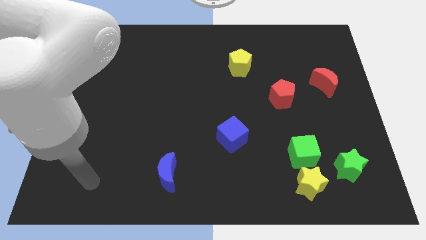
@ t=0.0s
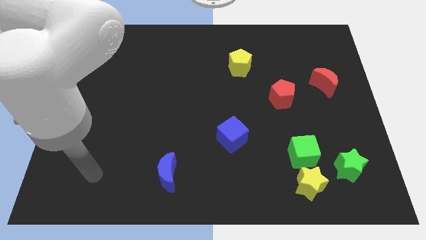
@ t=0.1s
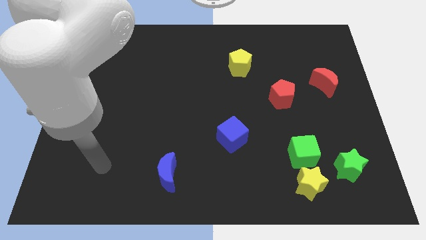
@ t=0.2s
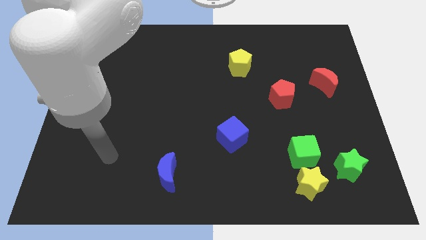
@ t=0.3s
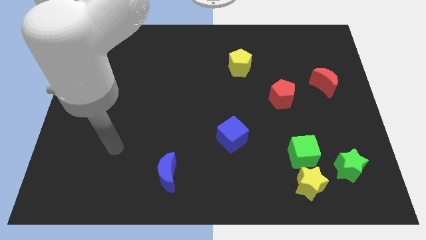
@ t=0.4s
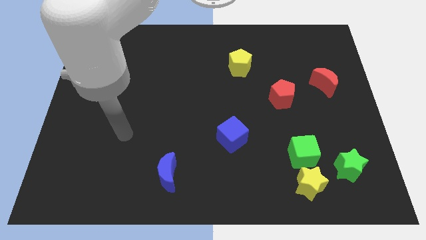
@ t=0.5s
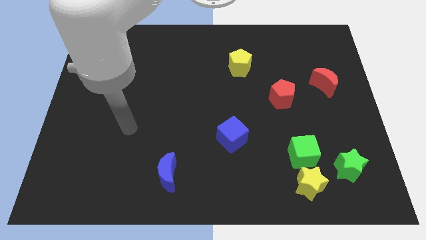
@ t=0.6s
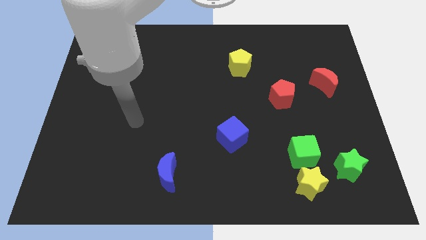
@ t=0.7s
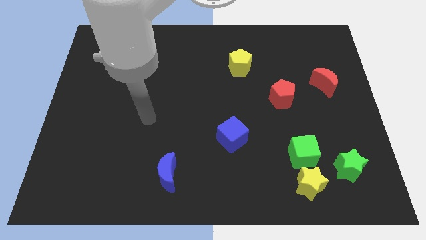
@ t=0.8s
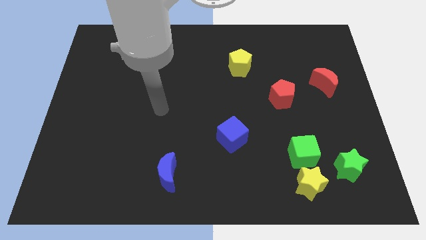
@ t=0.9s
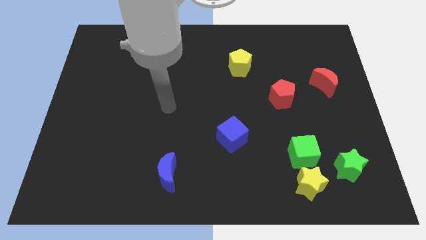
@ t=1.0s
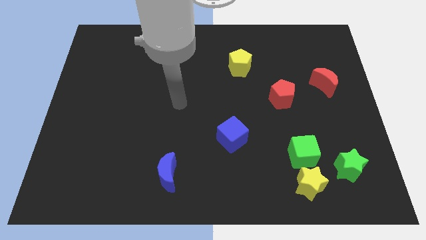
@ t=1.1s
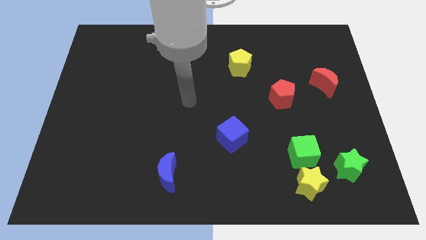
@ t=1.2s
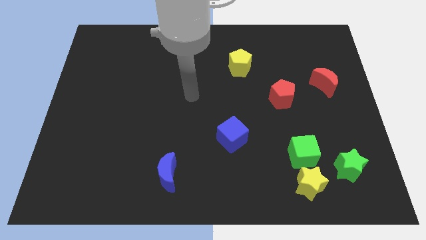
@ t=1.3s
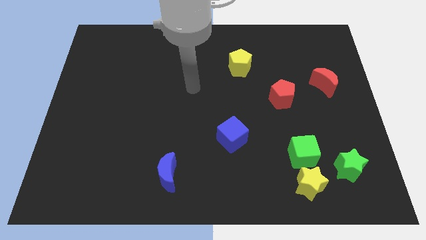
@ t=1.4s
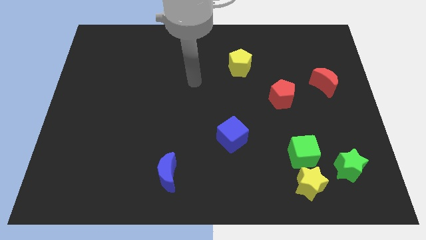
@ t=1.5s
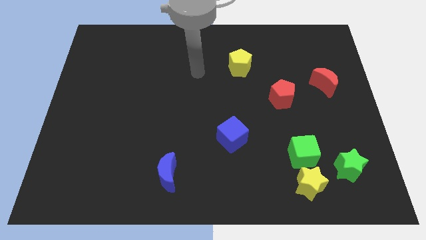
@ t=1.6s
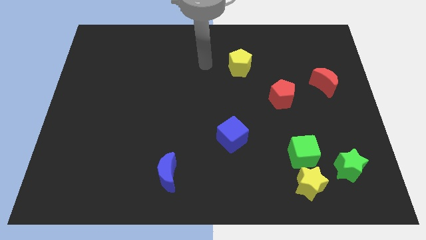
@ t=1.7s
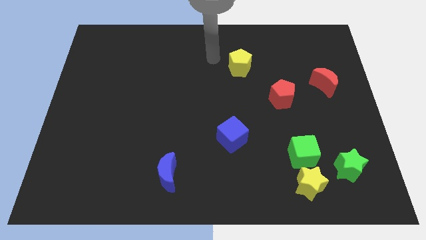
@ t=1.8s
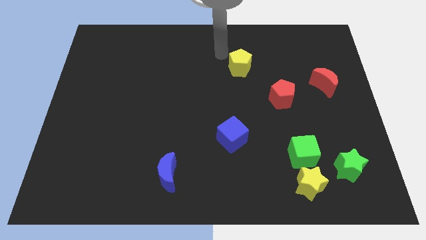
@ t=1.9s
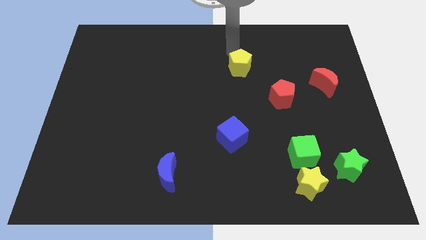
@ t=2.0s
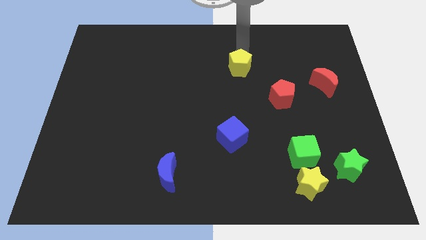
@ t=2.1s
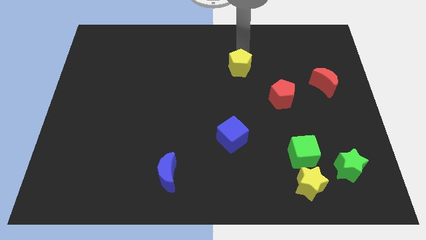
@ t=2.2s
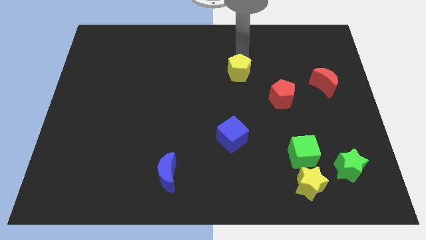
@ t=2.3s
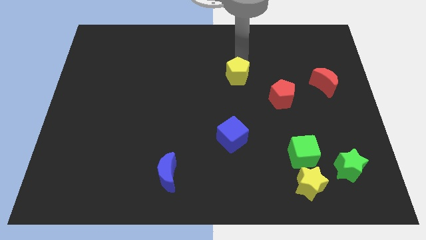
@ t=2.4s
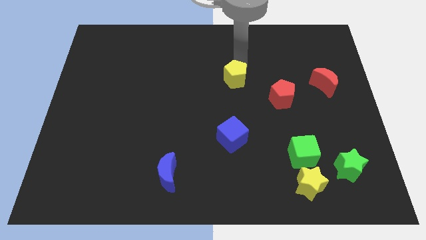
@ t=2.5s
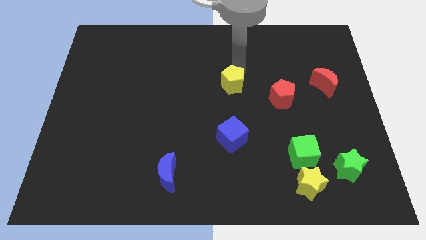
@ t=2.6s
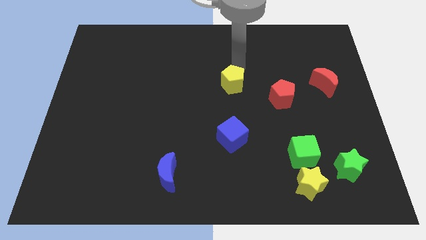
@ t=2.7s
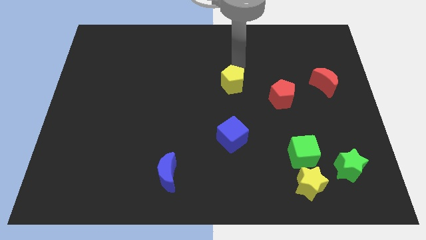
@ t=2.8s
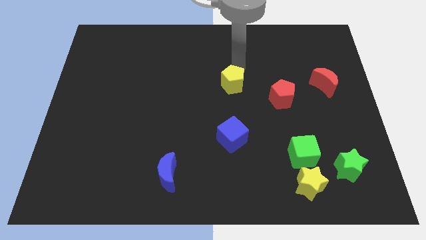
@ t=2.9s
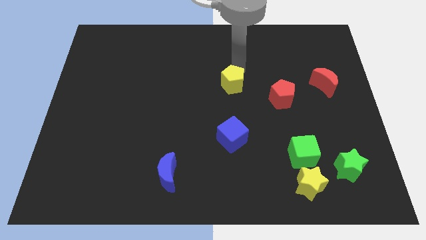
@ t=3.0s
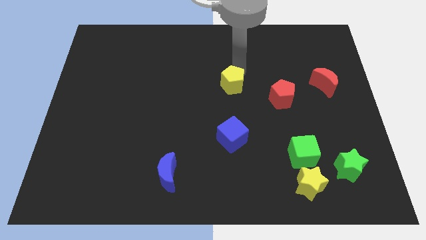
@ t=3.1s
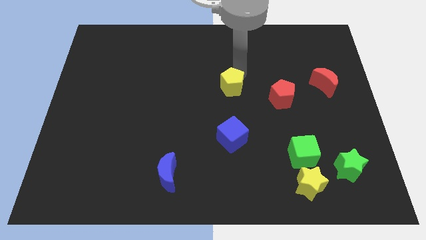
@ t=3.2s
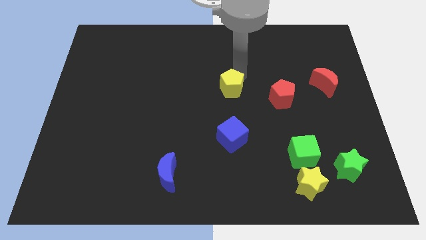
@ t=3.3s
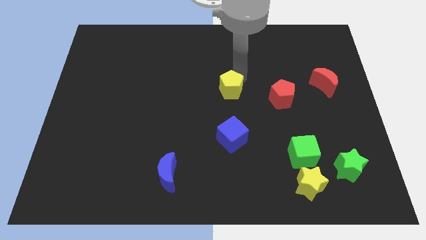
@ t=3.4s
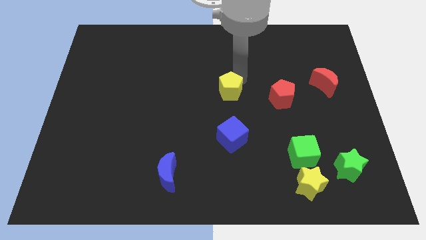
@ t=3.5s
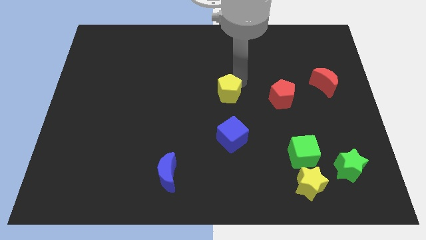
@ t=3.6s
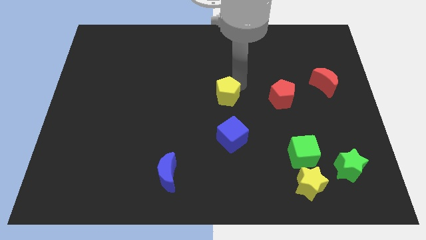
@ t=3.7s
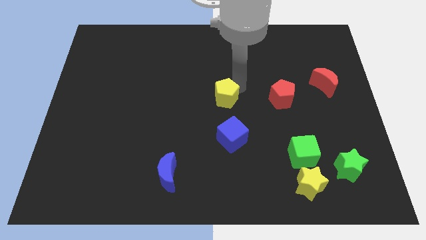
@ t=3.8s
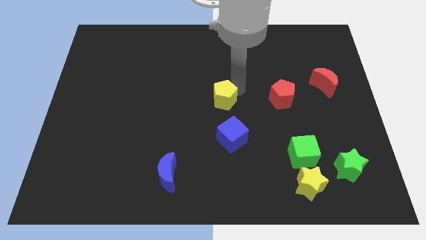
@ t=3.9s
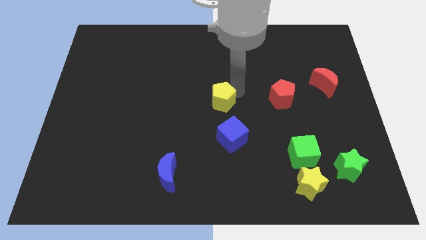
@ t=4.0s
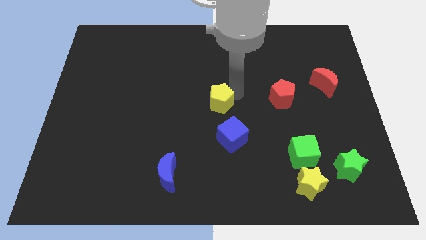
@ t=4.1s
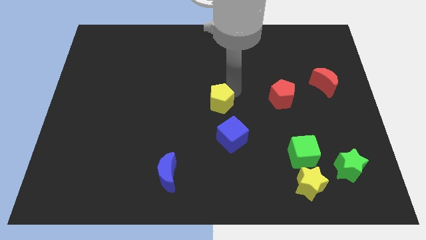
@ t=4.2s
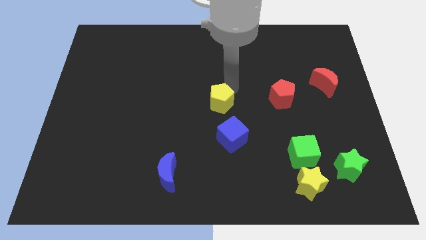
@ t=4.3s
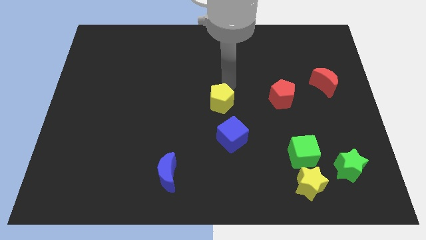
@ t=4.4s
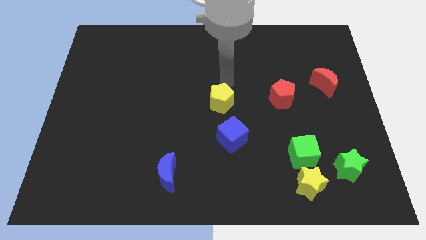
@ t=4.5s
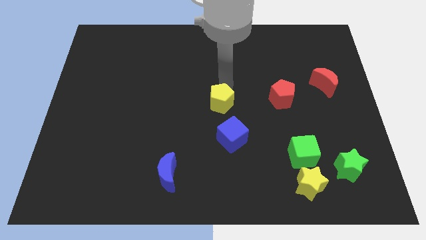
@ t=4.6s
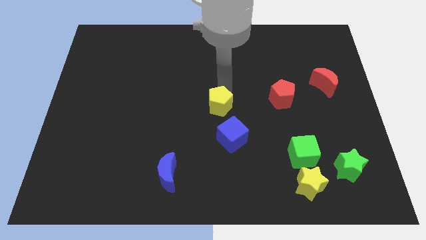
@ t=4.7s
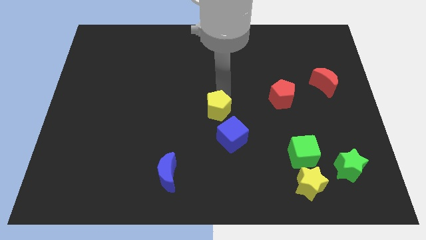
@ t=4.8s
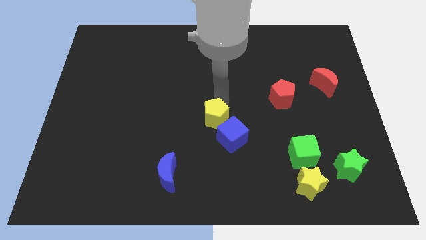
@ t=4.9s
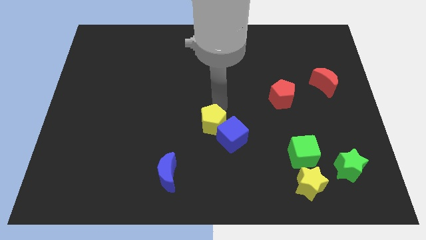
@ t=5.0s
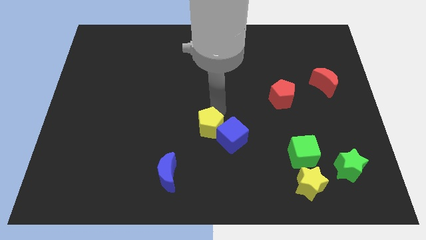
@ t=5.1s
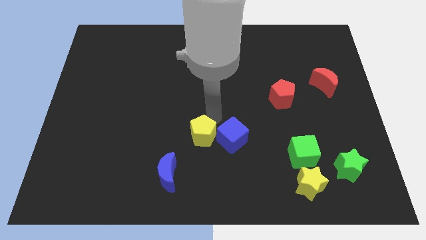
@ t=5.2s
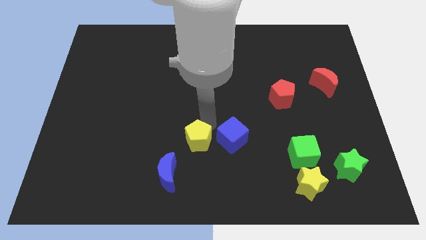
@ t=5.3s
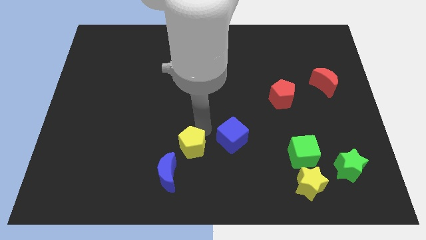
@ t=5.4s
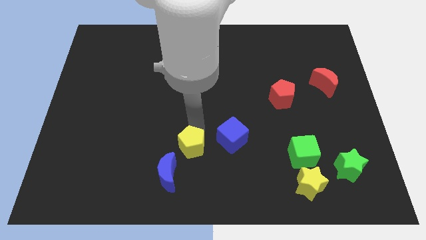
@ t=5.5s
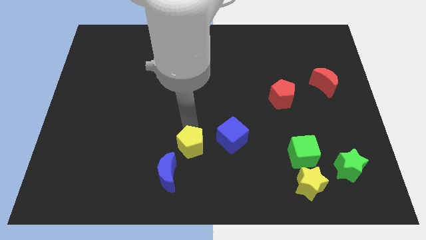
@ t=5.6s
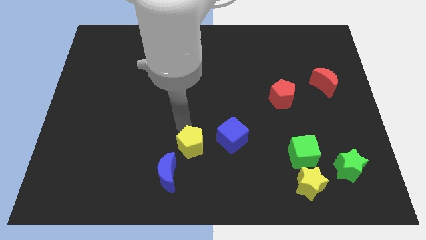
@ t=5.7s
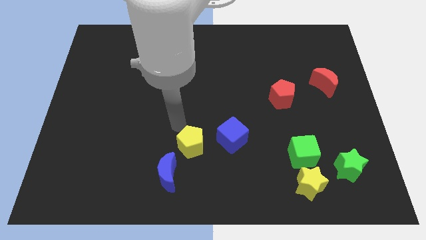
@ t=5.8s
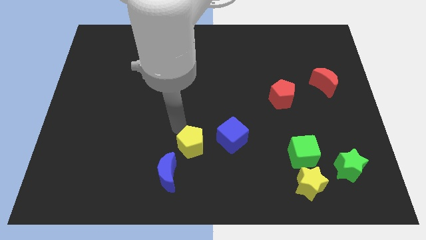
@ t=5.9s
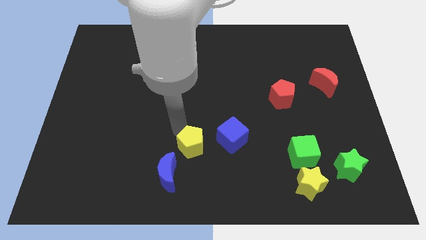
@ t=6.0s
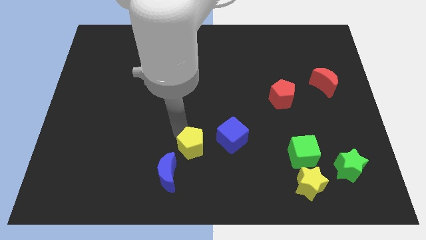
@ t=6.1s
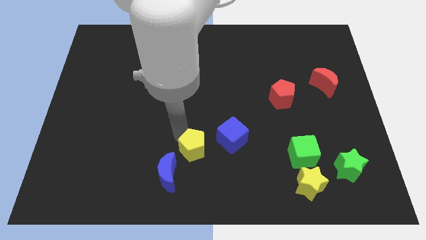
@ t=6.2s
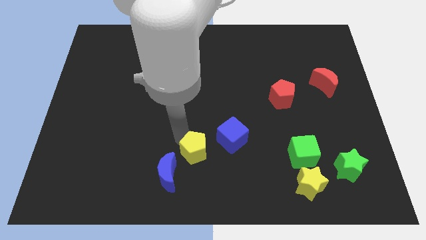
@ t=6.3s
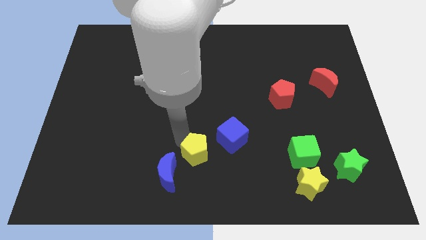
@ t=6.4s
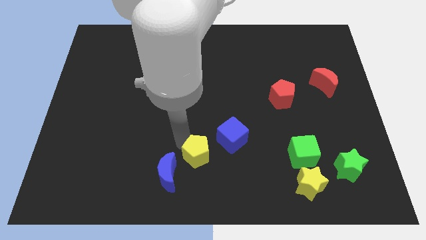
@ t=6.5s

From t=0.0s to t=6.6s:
move the yellow pentagon to the bottom
